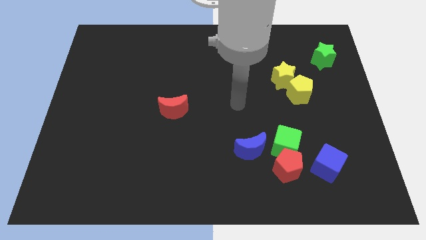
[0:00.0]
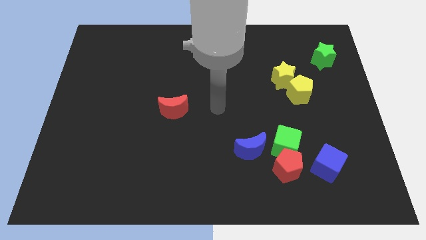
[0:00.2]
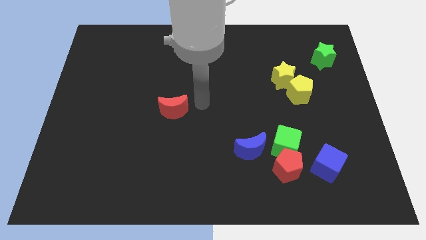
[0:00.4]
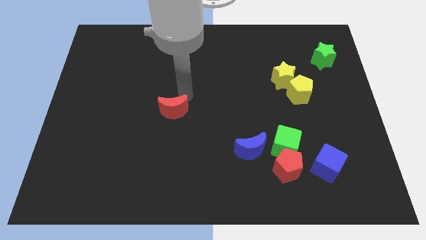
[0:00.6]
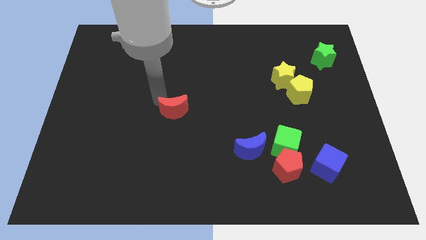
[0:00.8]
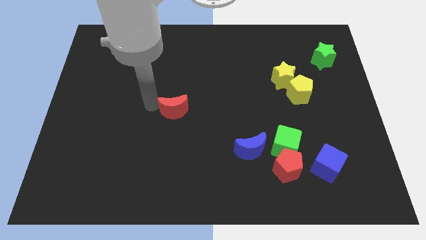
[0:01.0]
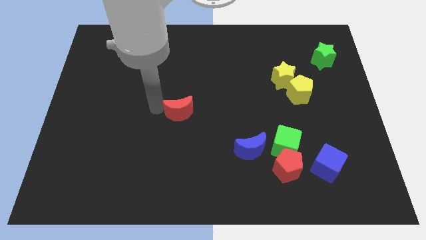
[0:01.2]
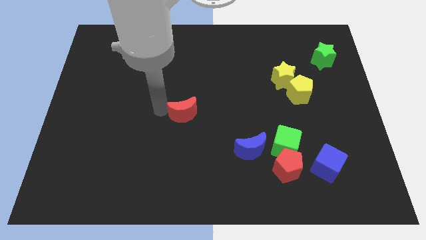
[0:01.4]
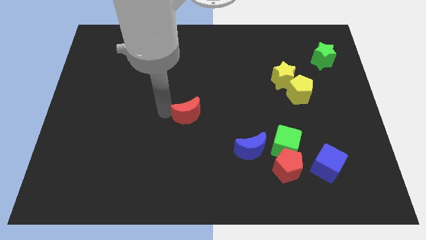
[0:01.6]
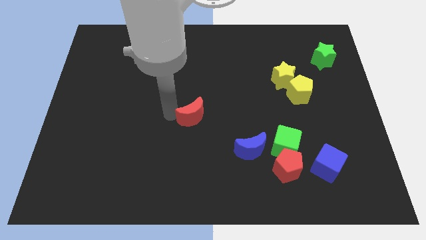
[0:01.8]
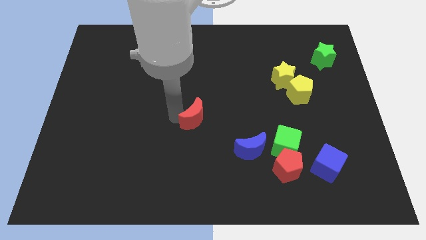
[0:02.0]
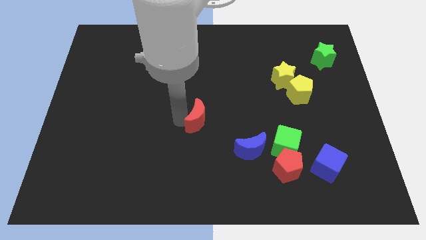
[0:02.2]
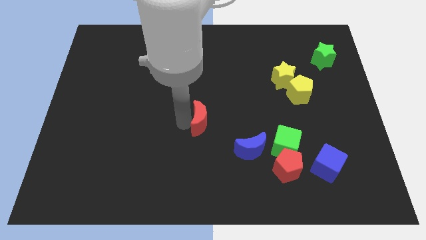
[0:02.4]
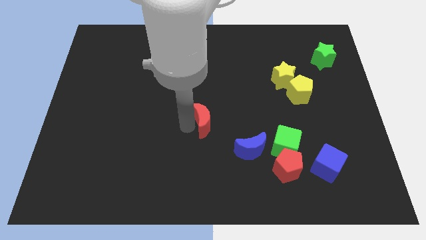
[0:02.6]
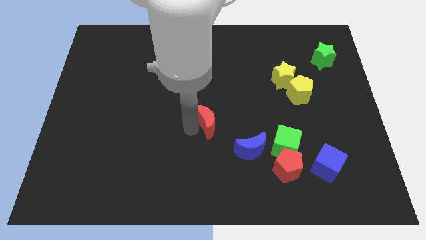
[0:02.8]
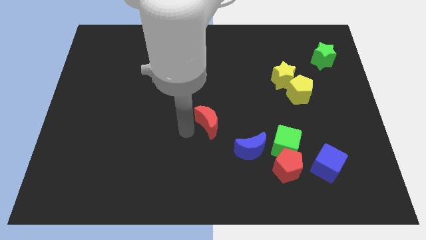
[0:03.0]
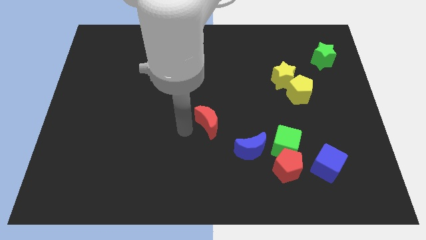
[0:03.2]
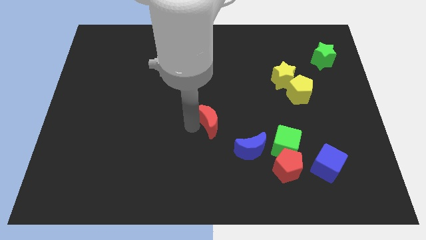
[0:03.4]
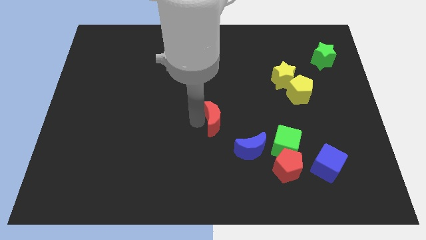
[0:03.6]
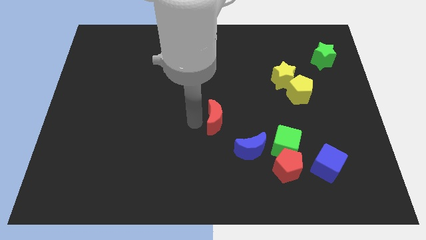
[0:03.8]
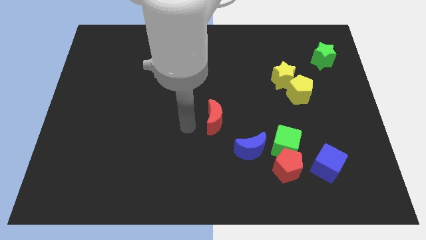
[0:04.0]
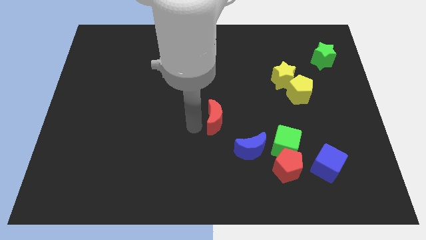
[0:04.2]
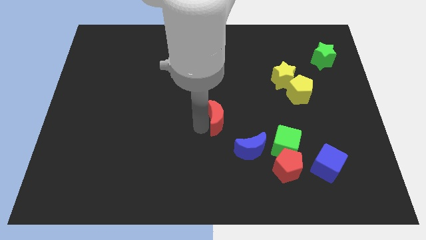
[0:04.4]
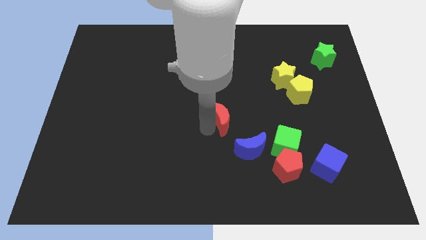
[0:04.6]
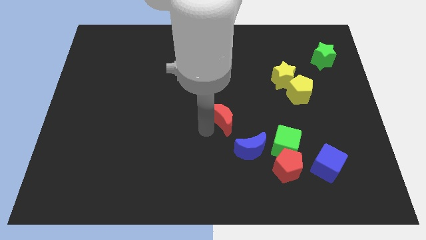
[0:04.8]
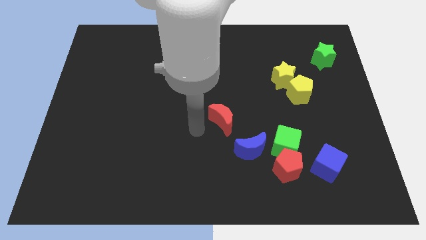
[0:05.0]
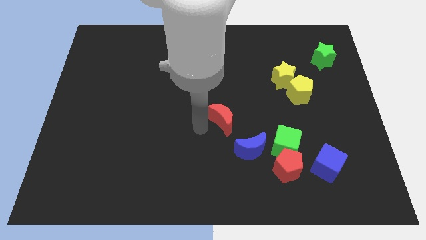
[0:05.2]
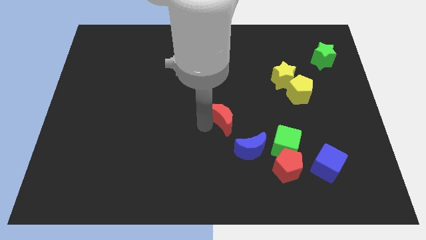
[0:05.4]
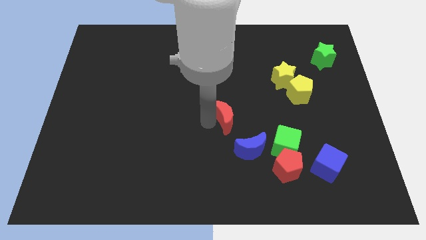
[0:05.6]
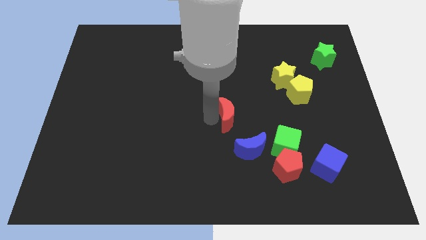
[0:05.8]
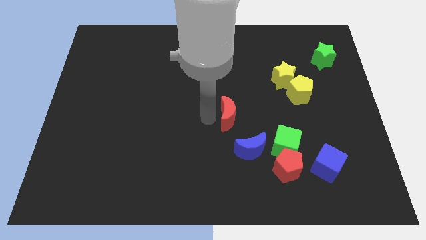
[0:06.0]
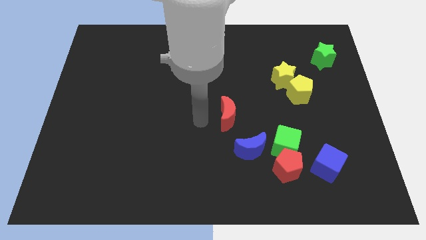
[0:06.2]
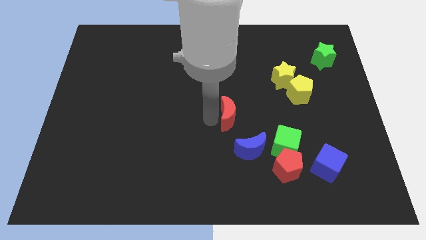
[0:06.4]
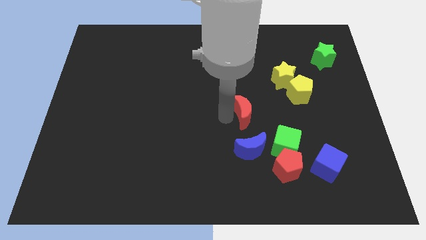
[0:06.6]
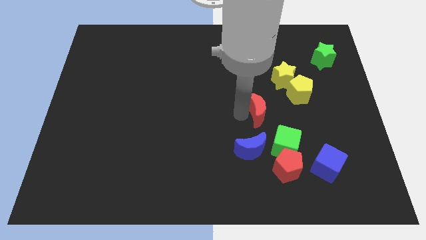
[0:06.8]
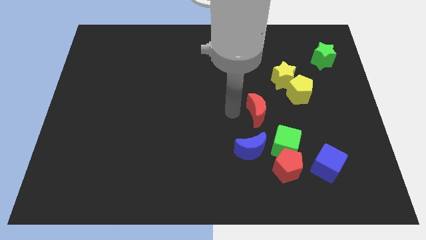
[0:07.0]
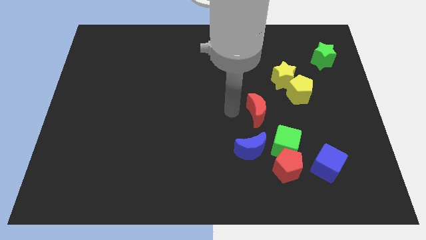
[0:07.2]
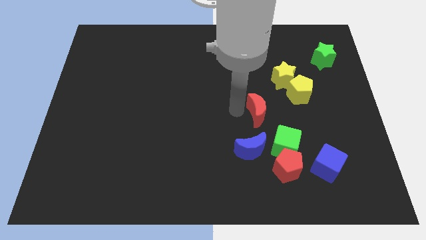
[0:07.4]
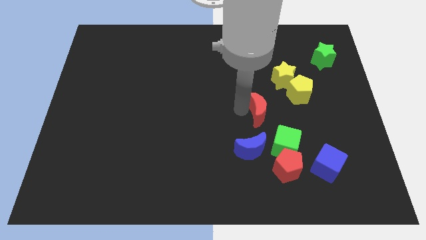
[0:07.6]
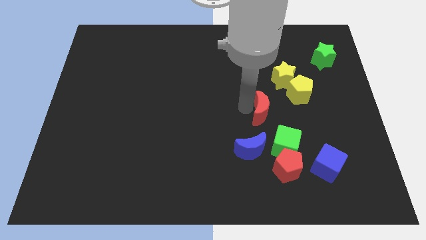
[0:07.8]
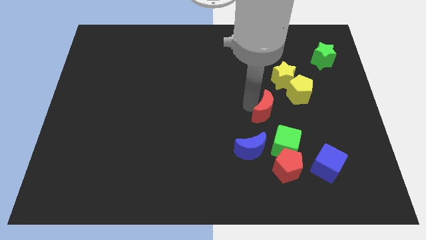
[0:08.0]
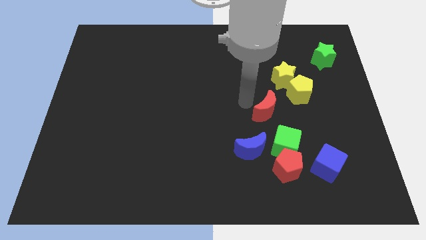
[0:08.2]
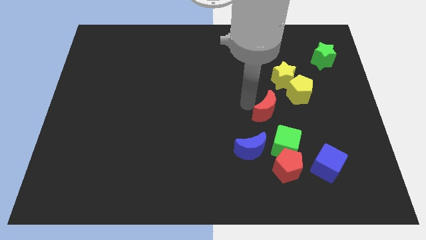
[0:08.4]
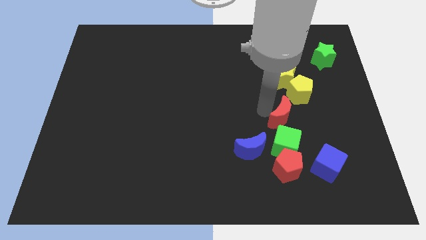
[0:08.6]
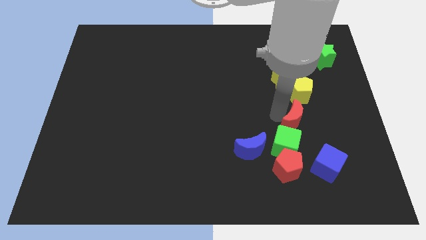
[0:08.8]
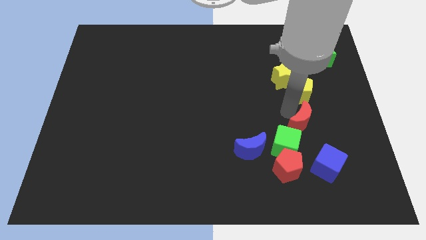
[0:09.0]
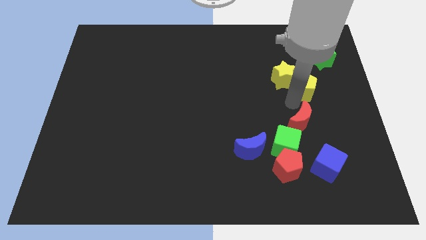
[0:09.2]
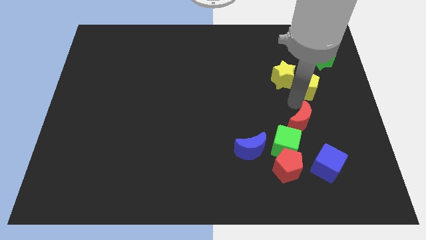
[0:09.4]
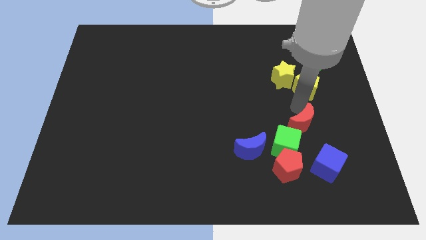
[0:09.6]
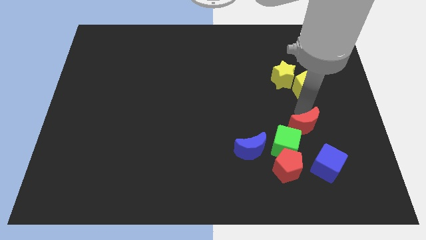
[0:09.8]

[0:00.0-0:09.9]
slide the red moon to the top right of the red pentagon

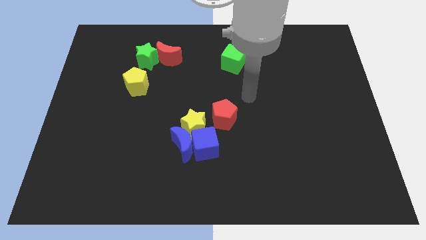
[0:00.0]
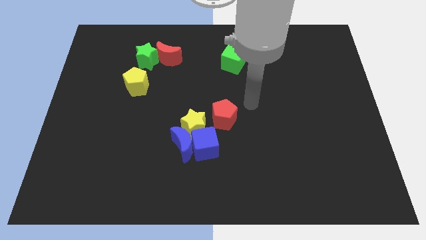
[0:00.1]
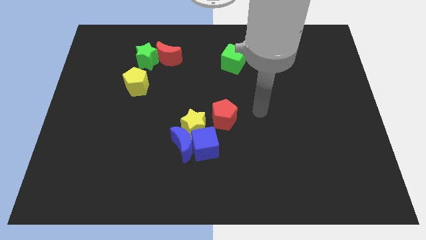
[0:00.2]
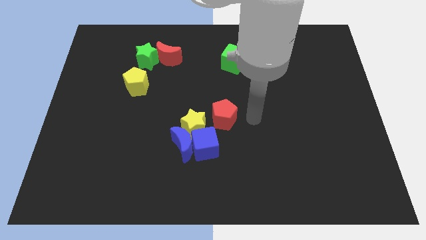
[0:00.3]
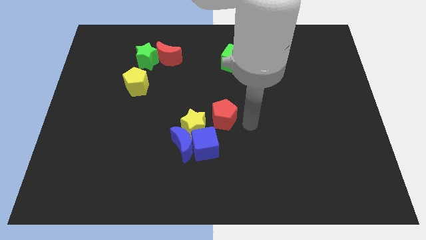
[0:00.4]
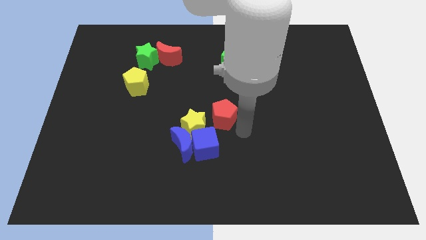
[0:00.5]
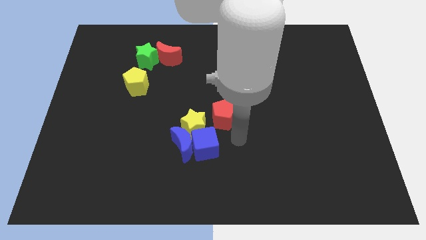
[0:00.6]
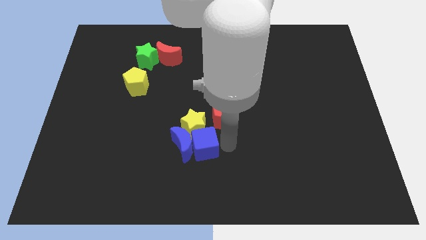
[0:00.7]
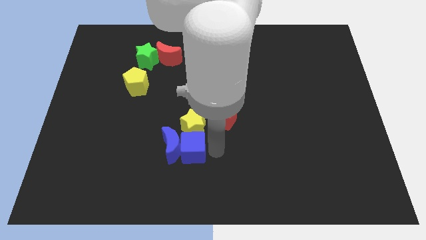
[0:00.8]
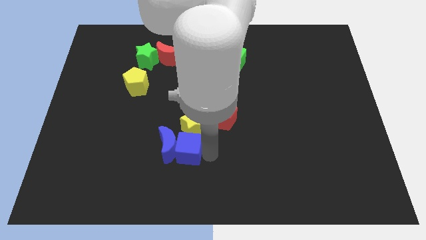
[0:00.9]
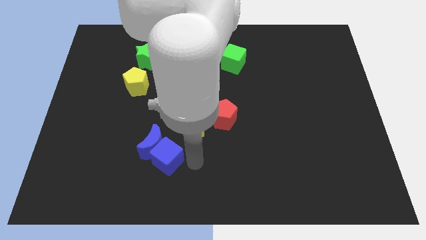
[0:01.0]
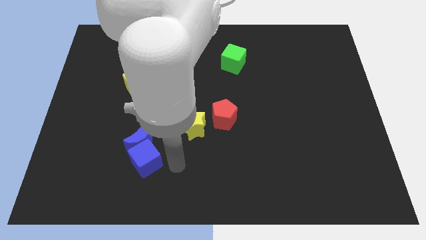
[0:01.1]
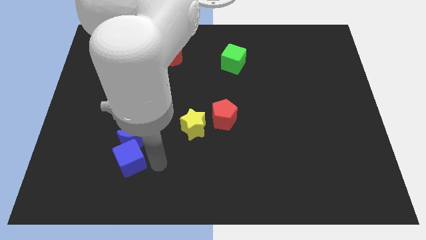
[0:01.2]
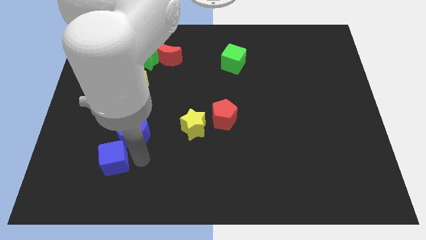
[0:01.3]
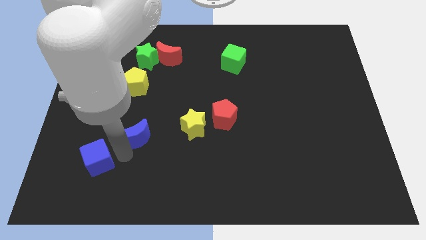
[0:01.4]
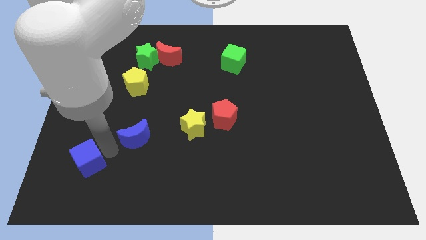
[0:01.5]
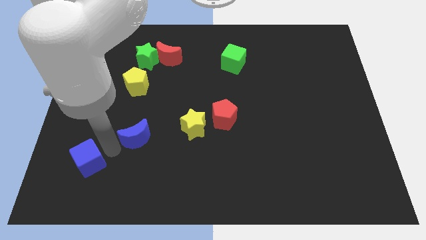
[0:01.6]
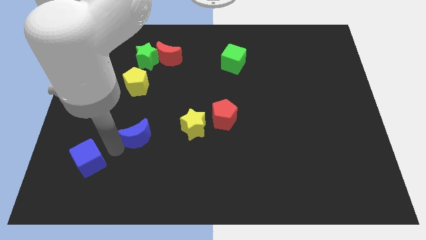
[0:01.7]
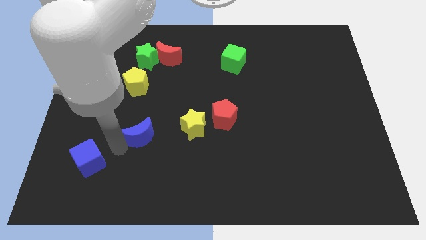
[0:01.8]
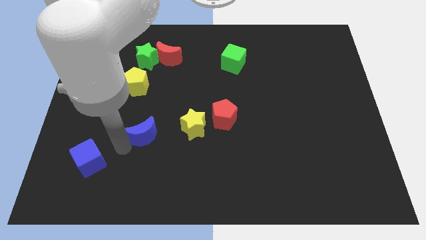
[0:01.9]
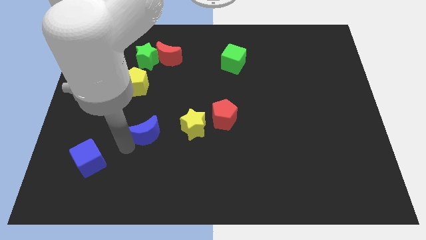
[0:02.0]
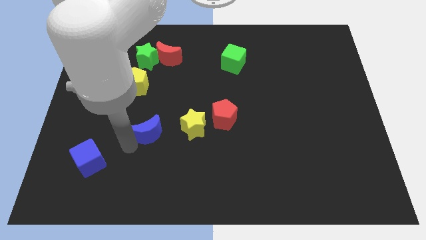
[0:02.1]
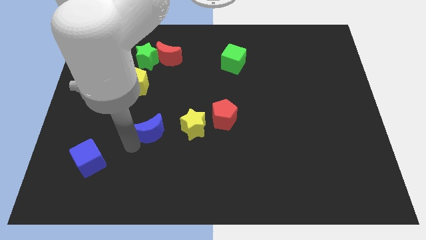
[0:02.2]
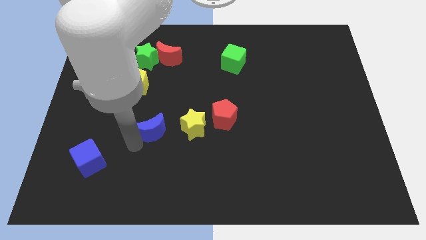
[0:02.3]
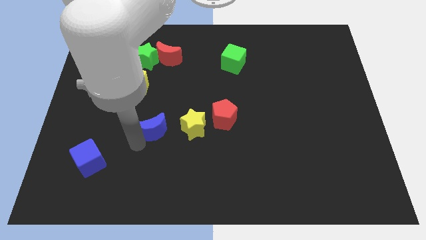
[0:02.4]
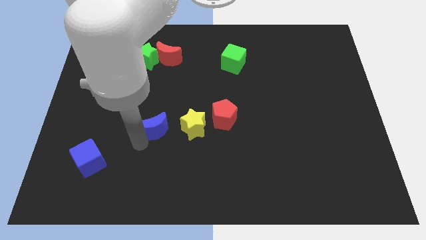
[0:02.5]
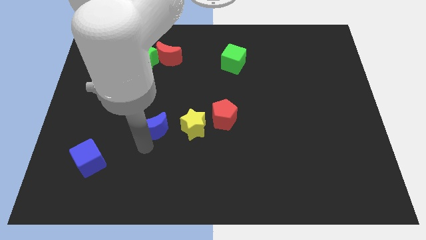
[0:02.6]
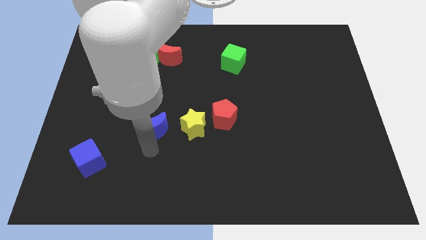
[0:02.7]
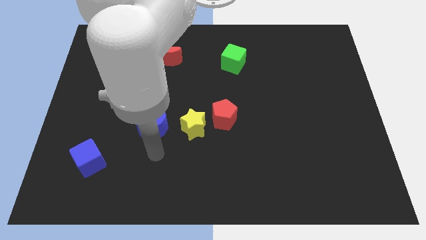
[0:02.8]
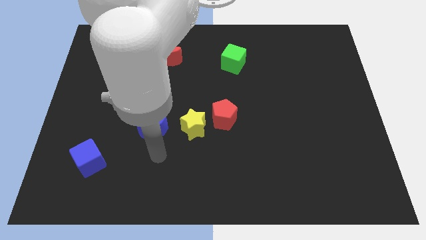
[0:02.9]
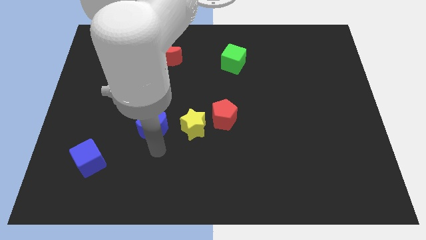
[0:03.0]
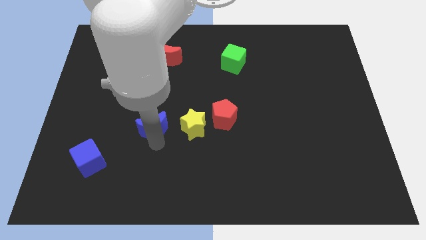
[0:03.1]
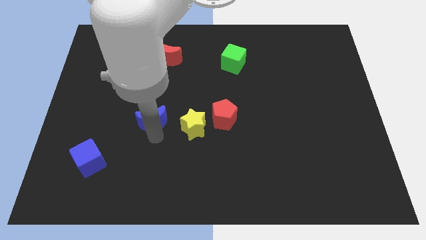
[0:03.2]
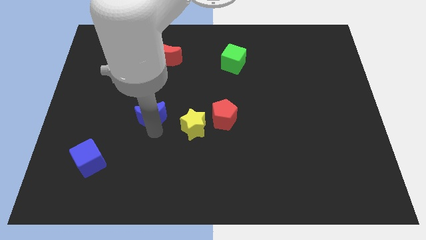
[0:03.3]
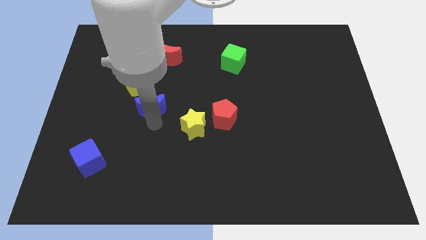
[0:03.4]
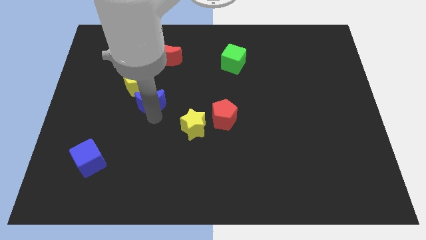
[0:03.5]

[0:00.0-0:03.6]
push the blue moon to the bottom of the green star
